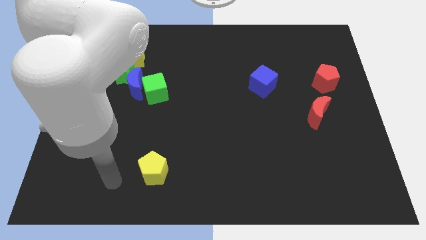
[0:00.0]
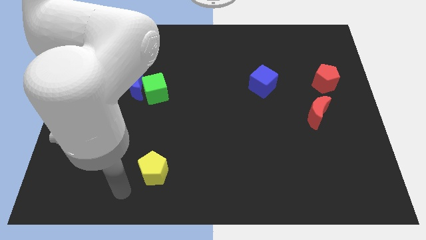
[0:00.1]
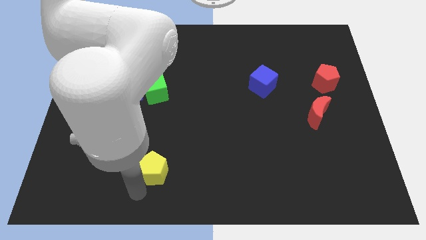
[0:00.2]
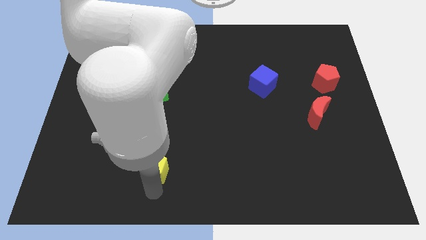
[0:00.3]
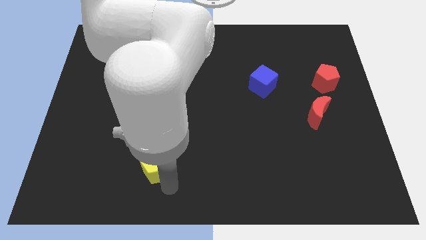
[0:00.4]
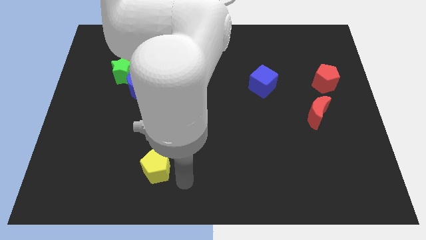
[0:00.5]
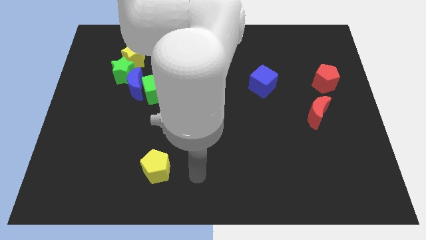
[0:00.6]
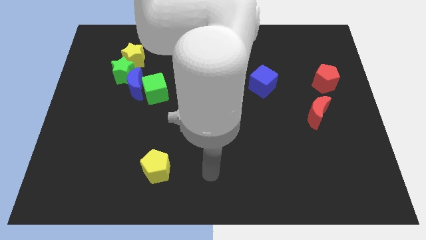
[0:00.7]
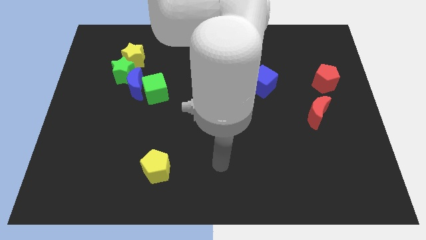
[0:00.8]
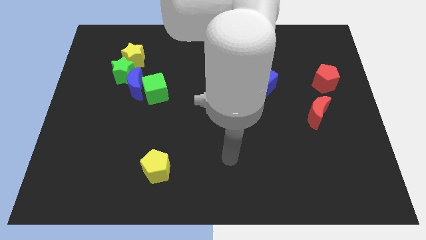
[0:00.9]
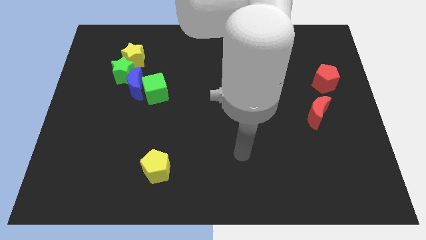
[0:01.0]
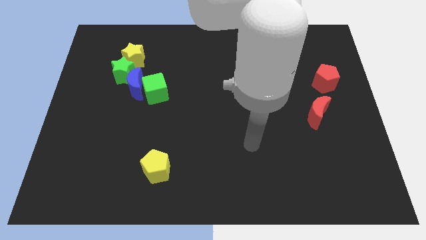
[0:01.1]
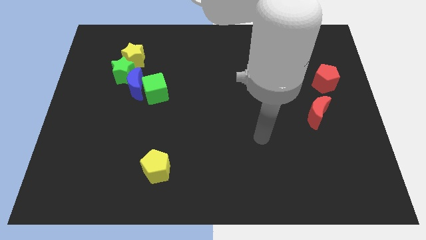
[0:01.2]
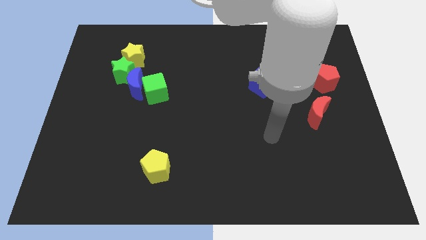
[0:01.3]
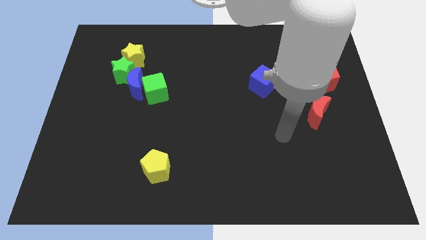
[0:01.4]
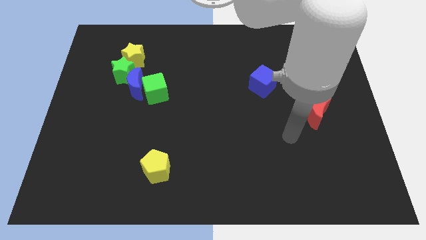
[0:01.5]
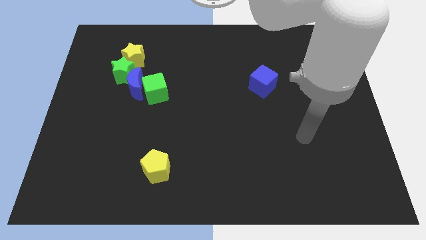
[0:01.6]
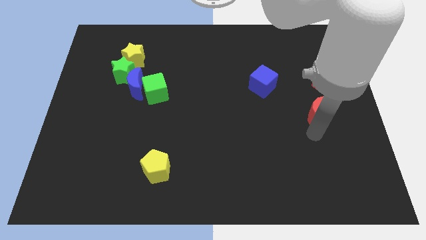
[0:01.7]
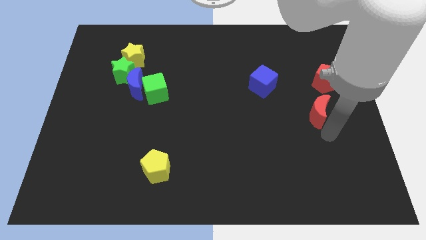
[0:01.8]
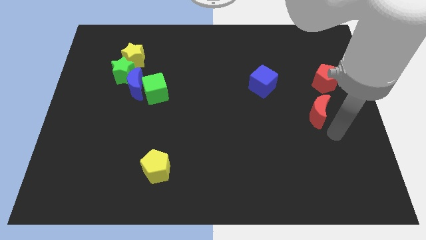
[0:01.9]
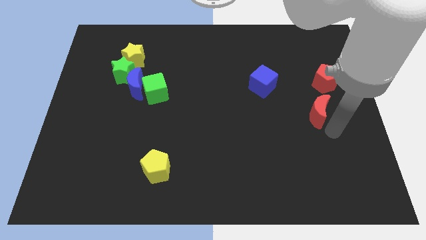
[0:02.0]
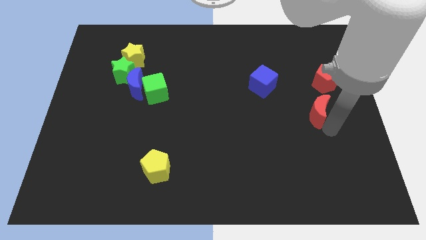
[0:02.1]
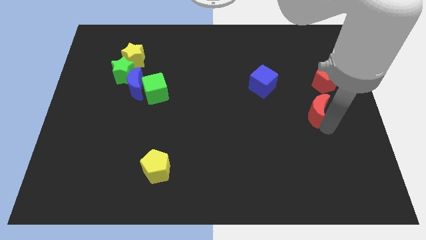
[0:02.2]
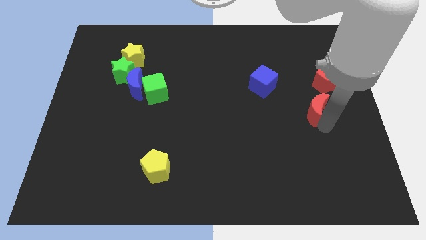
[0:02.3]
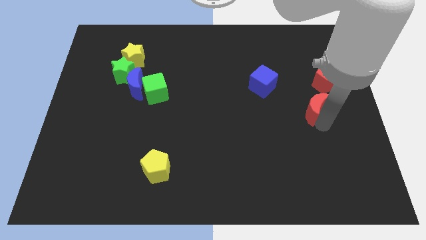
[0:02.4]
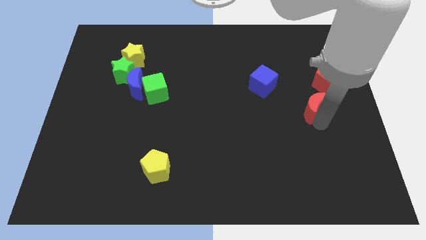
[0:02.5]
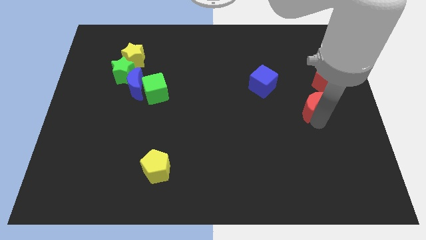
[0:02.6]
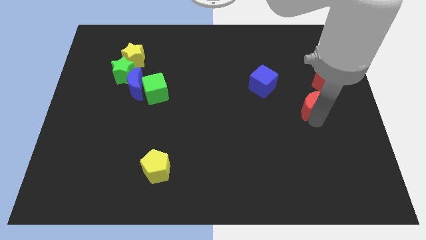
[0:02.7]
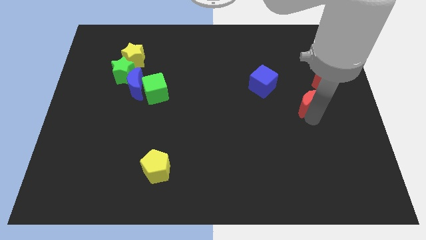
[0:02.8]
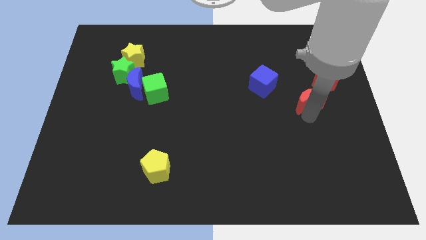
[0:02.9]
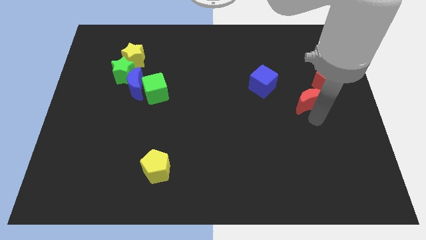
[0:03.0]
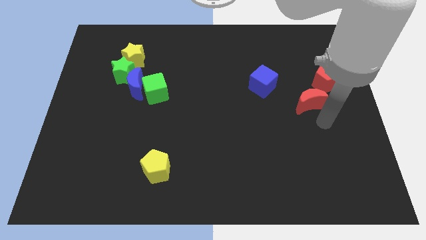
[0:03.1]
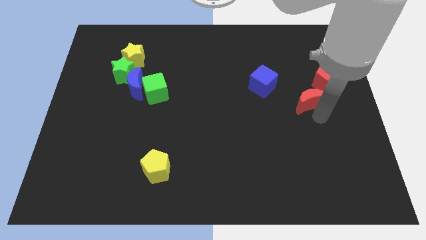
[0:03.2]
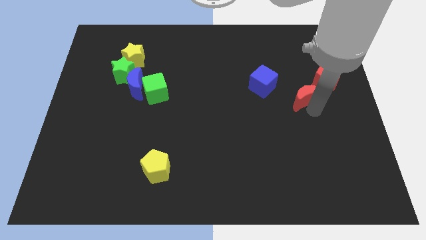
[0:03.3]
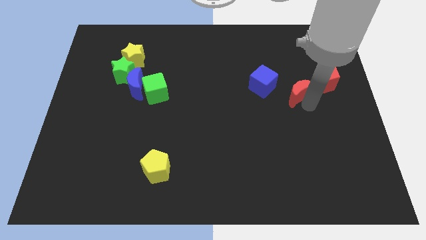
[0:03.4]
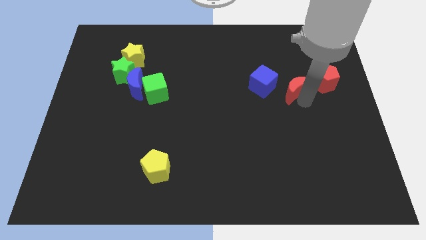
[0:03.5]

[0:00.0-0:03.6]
push the red moon a little bit up and then left

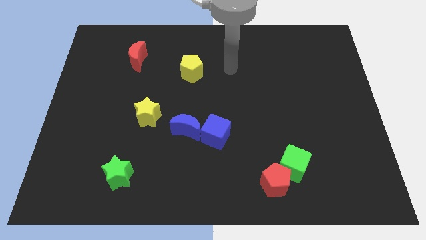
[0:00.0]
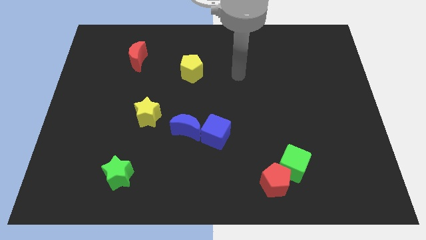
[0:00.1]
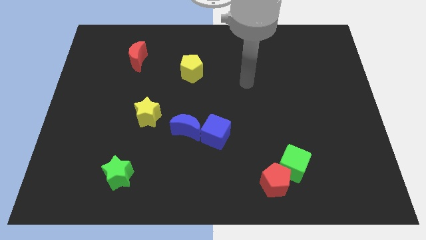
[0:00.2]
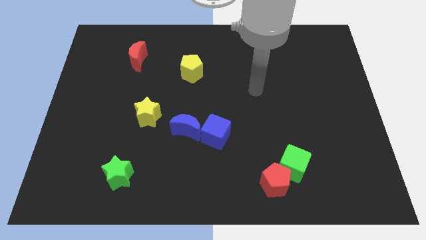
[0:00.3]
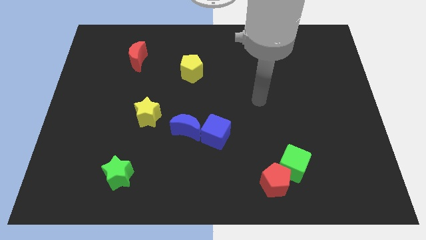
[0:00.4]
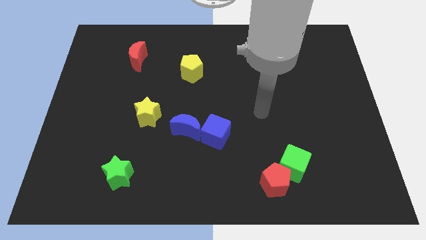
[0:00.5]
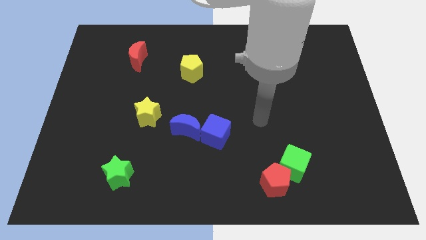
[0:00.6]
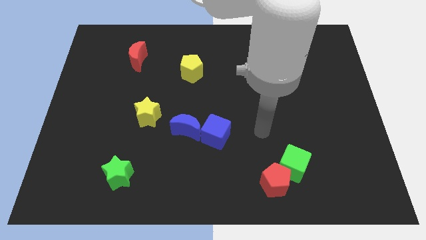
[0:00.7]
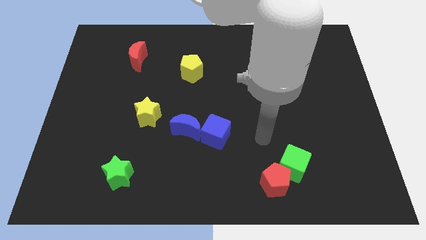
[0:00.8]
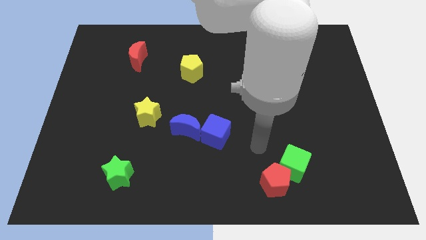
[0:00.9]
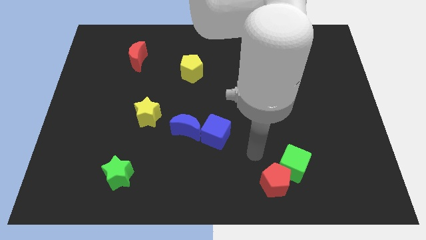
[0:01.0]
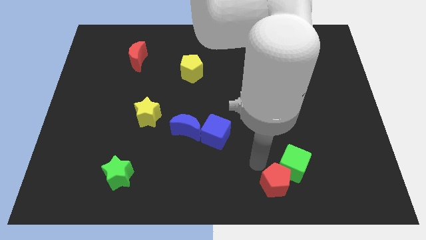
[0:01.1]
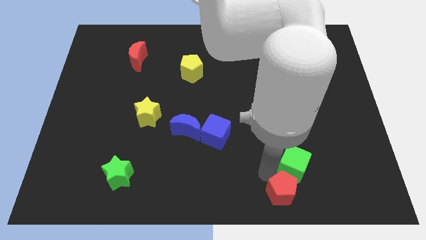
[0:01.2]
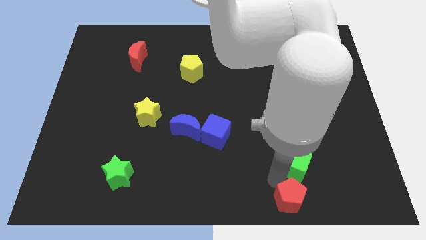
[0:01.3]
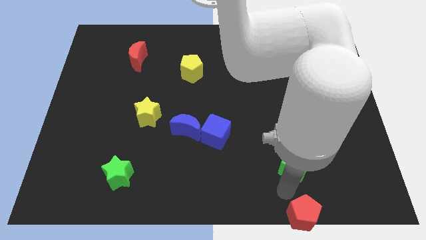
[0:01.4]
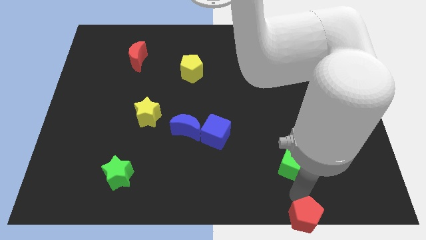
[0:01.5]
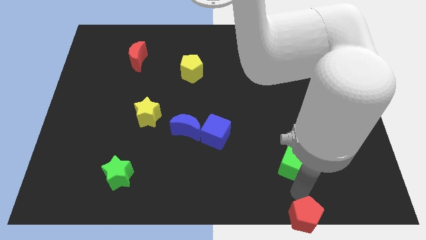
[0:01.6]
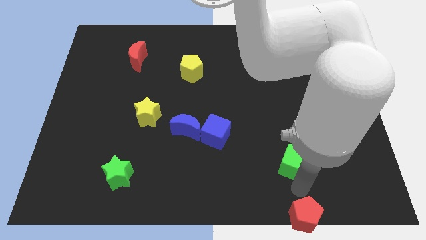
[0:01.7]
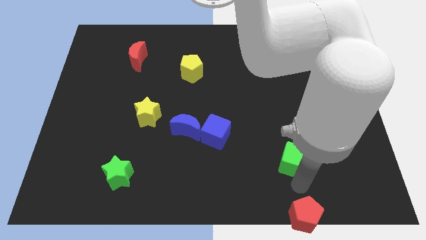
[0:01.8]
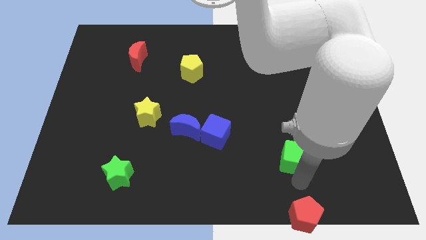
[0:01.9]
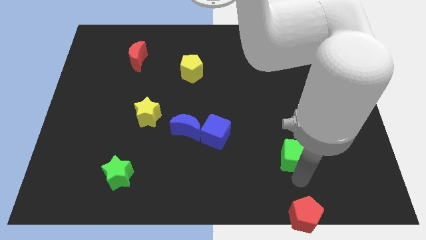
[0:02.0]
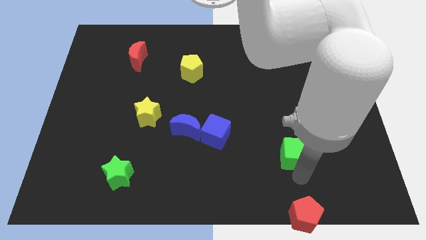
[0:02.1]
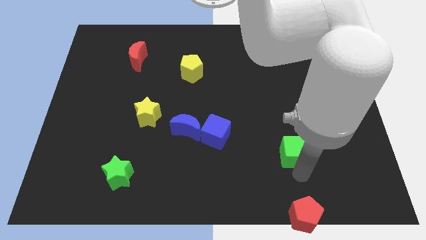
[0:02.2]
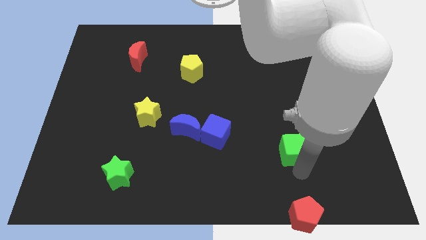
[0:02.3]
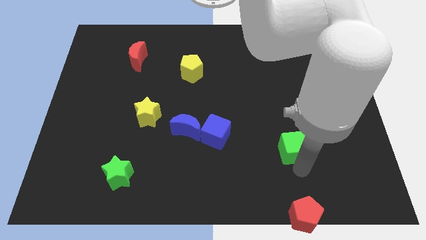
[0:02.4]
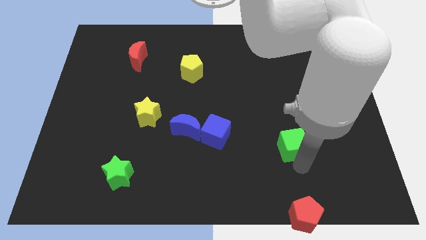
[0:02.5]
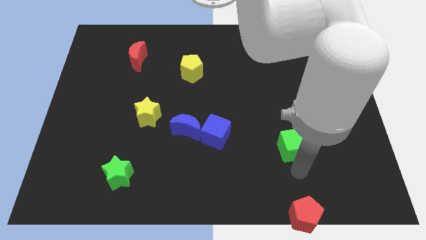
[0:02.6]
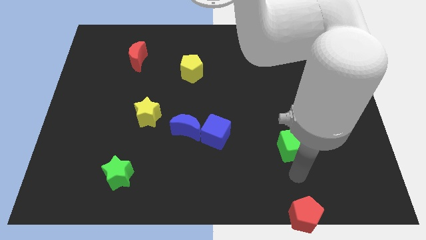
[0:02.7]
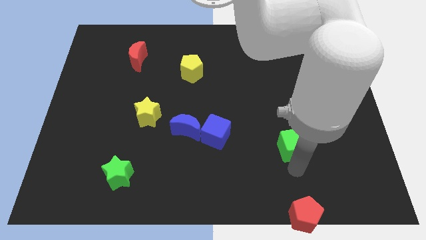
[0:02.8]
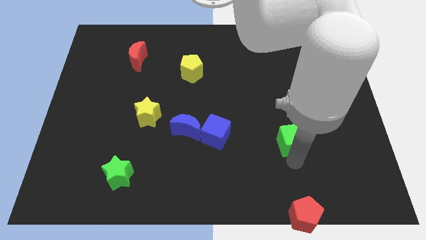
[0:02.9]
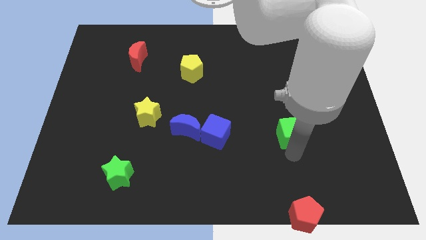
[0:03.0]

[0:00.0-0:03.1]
slightly push the green cube up

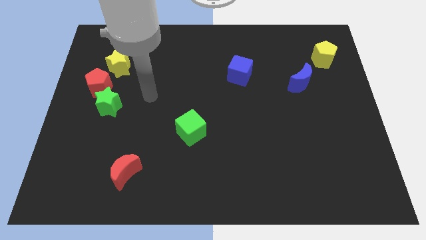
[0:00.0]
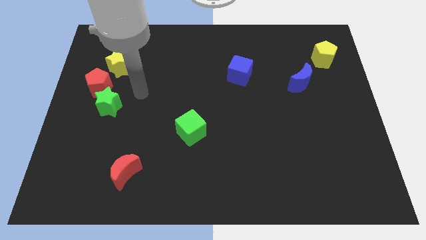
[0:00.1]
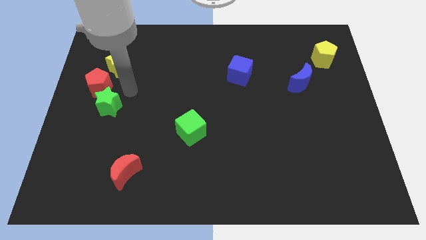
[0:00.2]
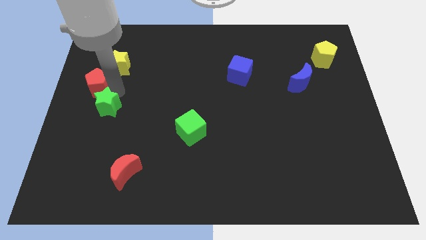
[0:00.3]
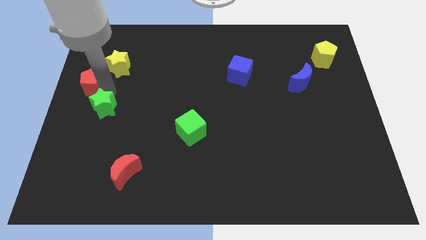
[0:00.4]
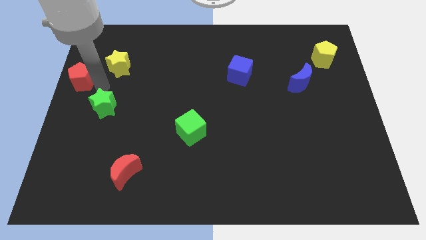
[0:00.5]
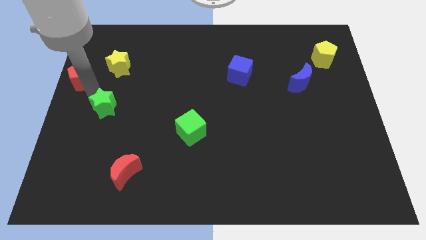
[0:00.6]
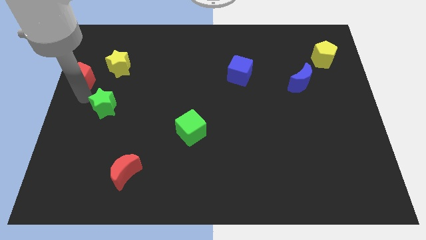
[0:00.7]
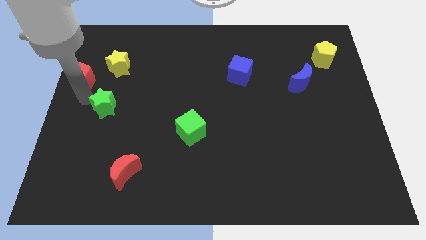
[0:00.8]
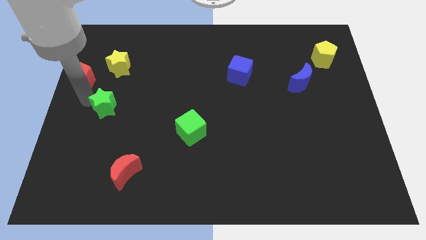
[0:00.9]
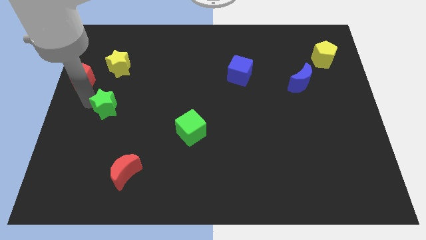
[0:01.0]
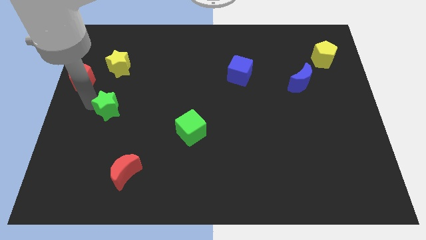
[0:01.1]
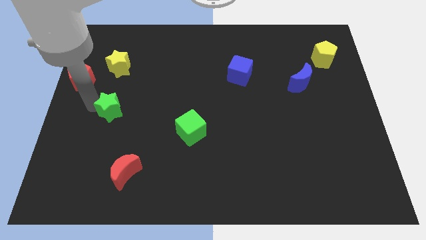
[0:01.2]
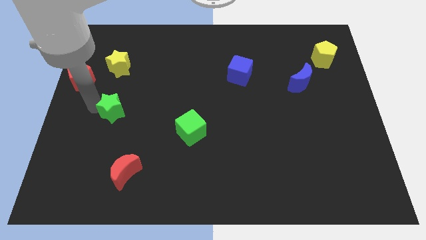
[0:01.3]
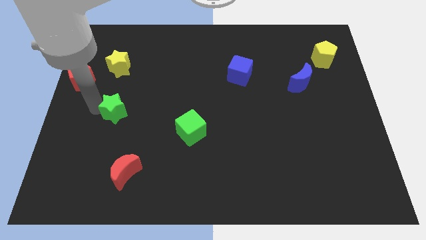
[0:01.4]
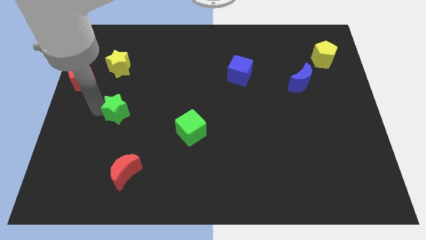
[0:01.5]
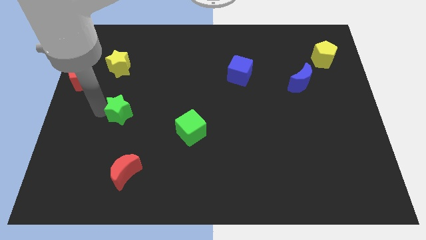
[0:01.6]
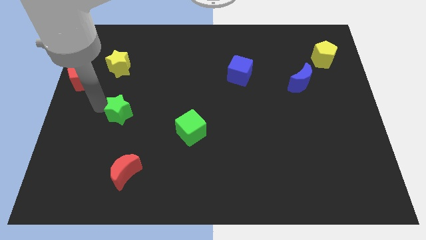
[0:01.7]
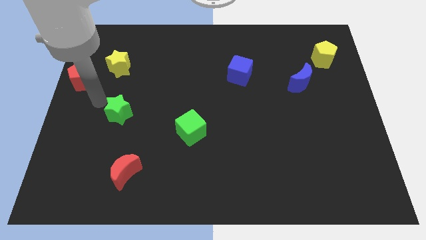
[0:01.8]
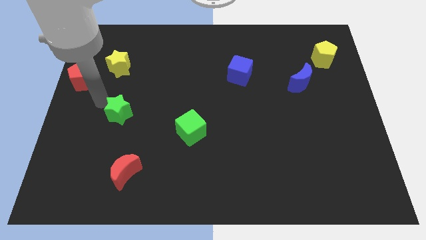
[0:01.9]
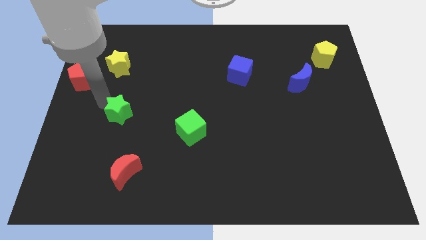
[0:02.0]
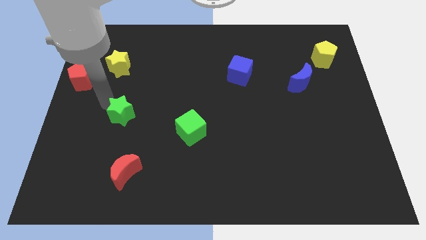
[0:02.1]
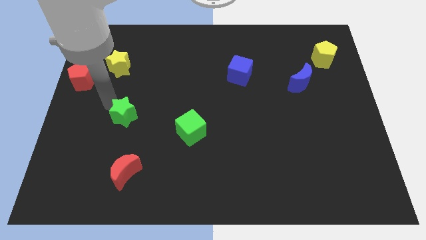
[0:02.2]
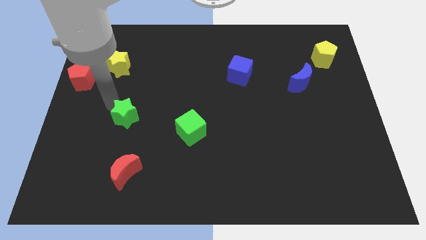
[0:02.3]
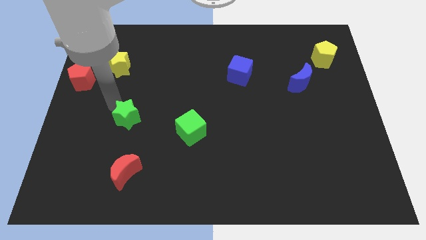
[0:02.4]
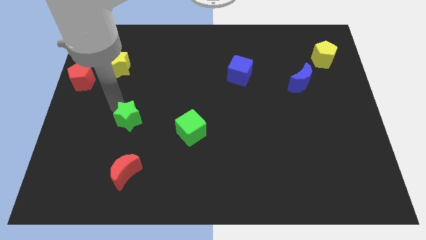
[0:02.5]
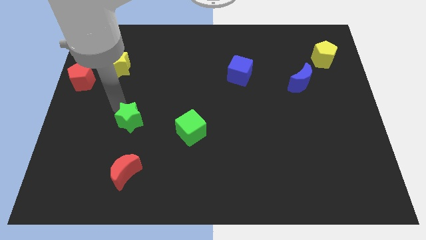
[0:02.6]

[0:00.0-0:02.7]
move the green star diagonally down and to the right a little
